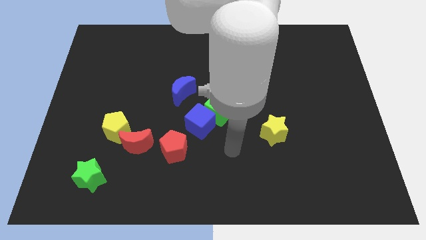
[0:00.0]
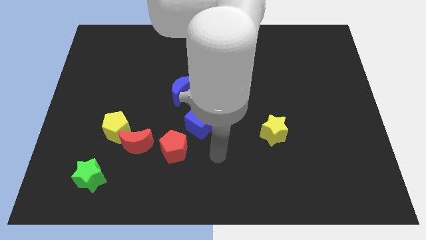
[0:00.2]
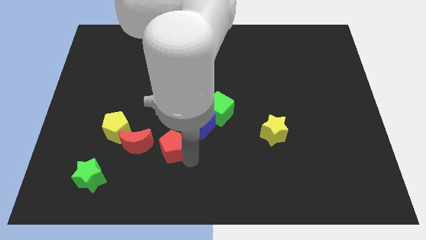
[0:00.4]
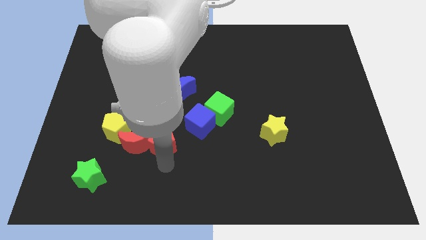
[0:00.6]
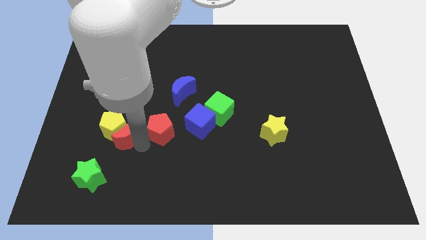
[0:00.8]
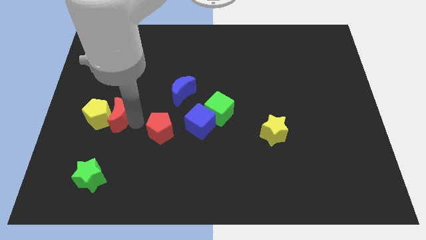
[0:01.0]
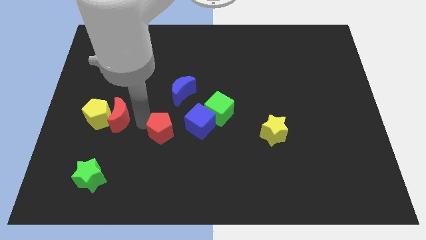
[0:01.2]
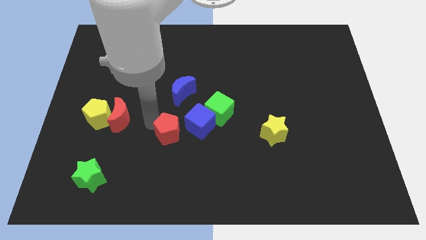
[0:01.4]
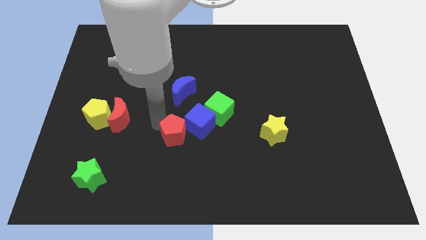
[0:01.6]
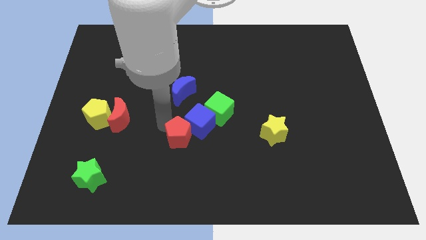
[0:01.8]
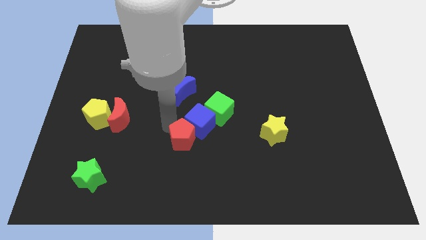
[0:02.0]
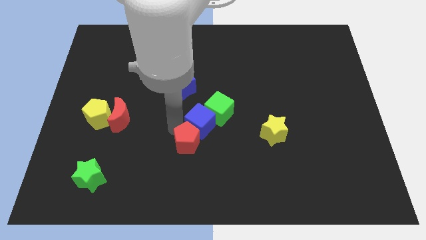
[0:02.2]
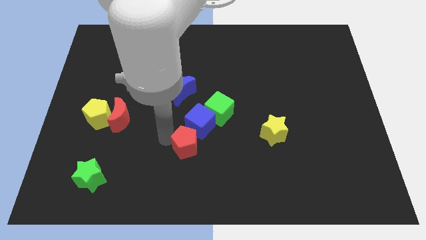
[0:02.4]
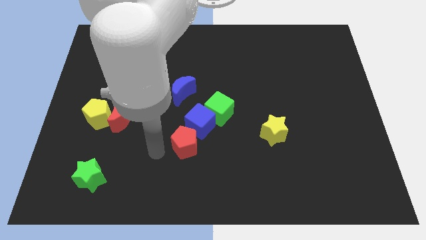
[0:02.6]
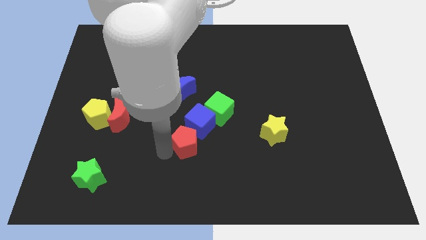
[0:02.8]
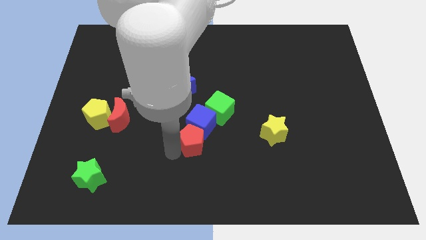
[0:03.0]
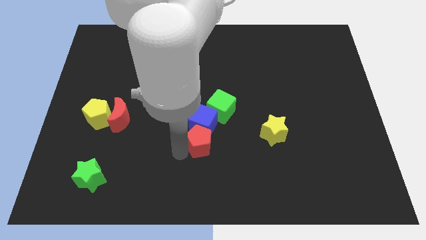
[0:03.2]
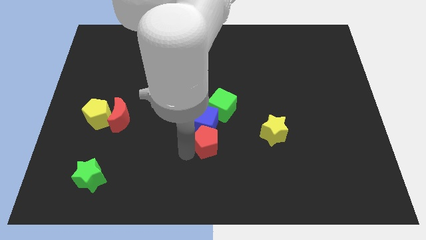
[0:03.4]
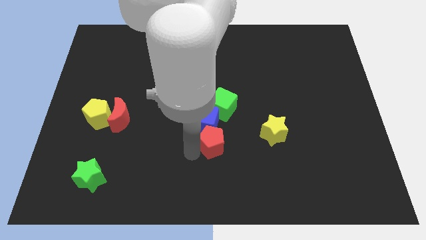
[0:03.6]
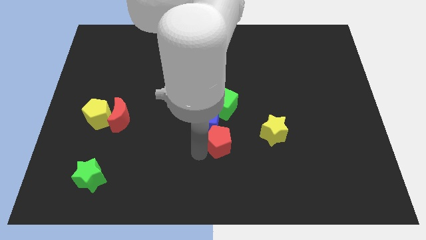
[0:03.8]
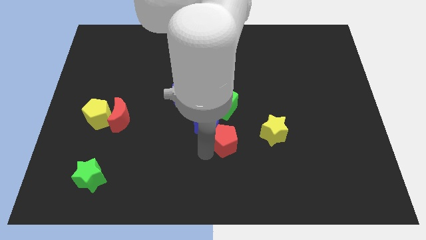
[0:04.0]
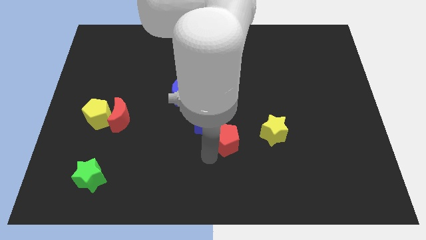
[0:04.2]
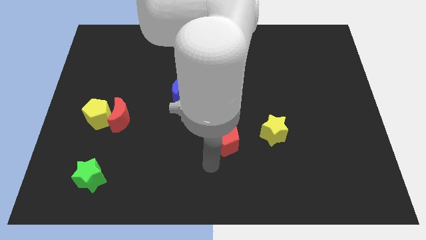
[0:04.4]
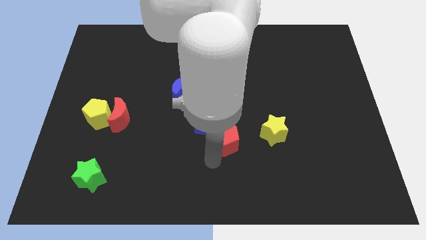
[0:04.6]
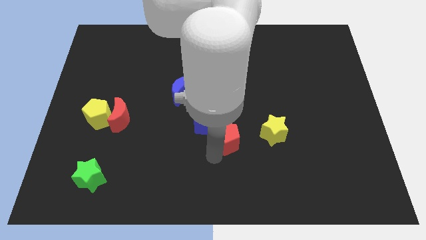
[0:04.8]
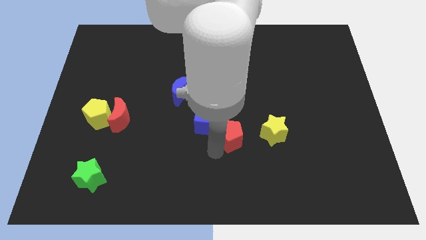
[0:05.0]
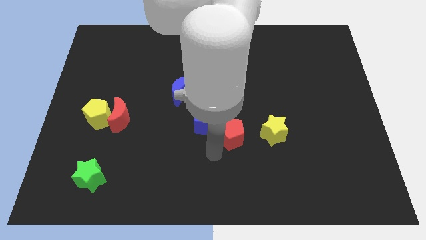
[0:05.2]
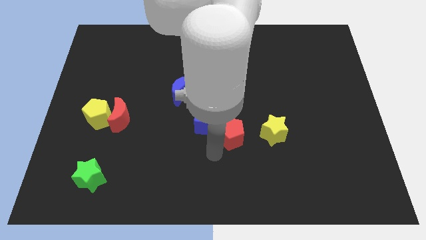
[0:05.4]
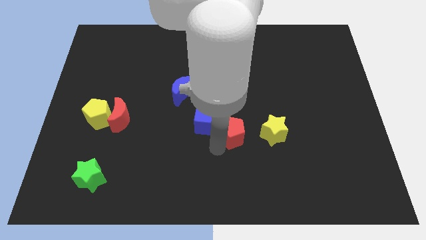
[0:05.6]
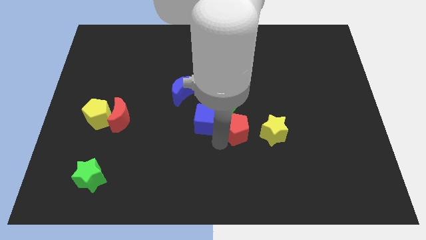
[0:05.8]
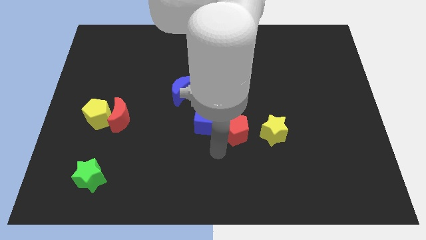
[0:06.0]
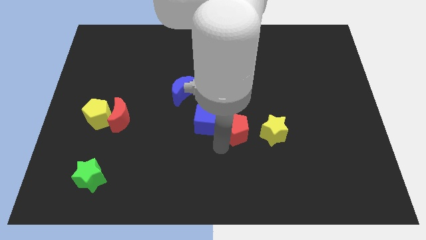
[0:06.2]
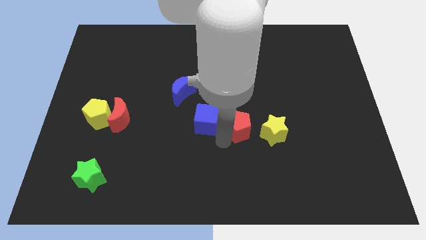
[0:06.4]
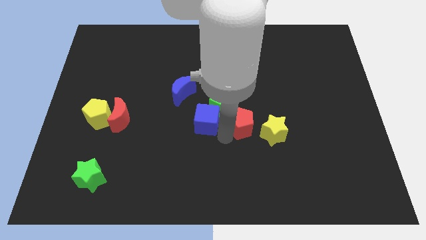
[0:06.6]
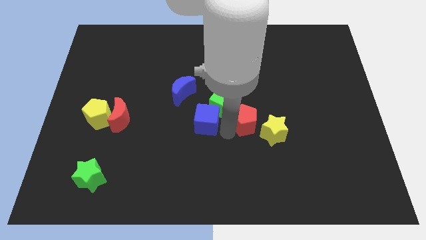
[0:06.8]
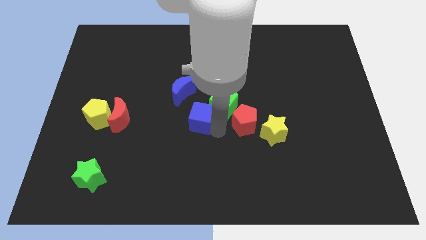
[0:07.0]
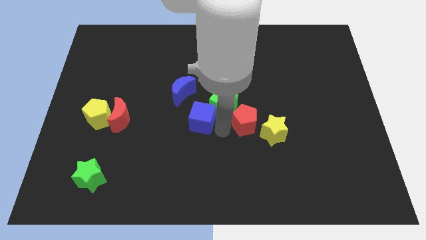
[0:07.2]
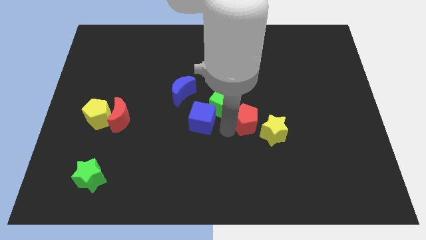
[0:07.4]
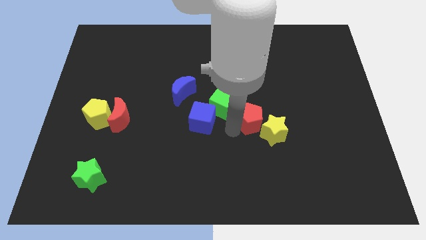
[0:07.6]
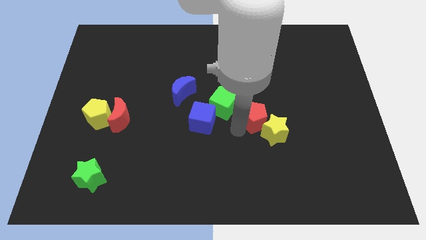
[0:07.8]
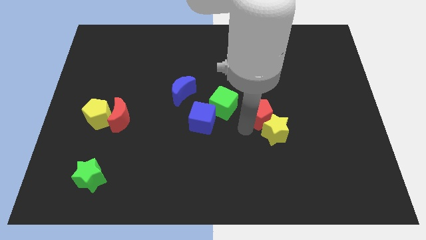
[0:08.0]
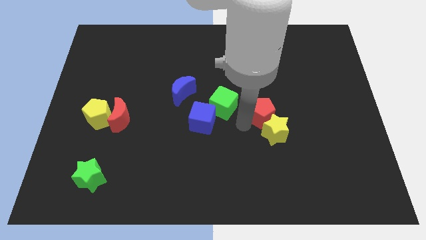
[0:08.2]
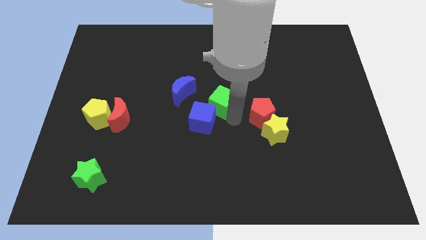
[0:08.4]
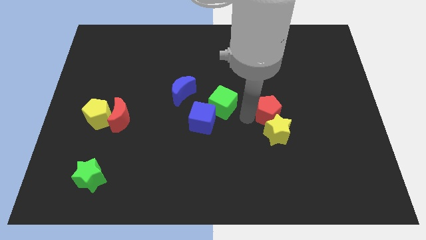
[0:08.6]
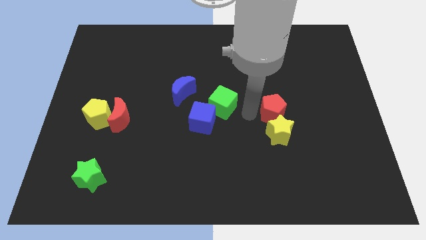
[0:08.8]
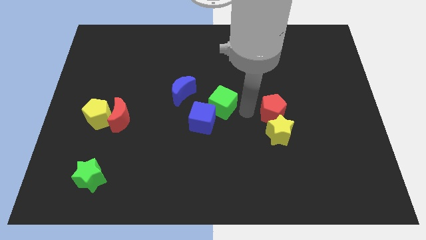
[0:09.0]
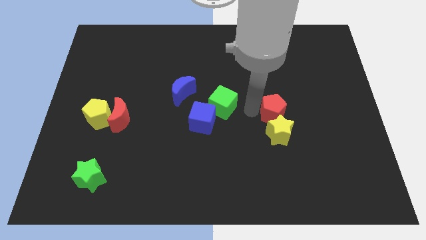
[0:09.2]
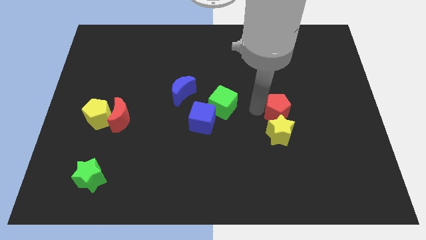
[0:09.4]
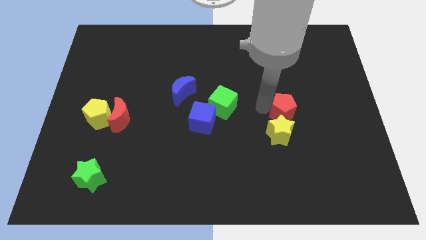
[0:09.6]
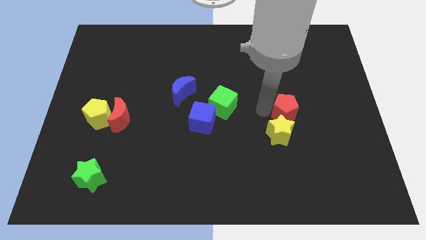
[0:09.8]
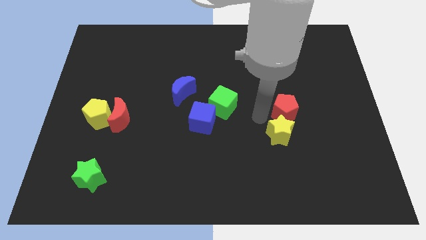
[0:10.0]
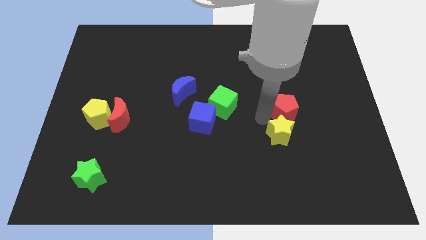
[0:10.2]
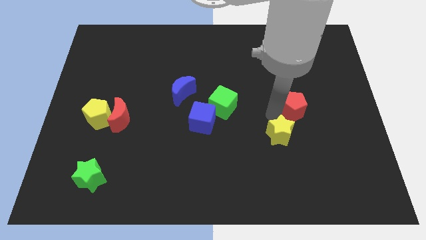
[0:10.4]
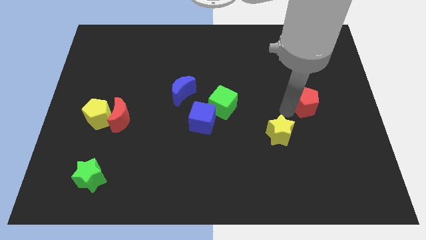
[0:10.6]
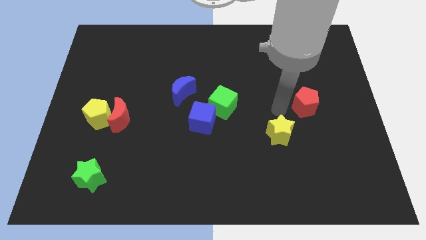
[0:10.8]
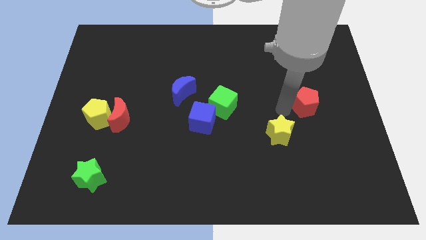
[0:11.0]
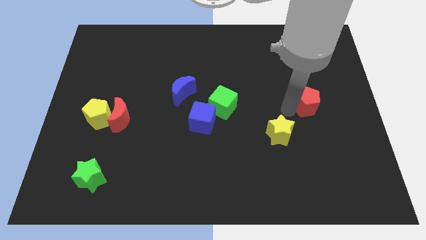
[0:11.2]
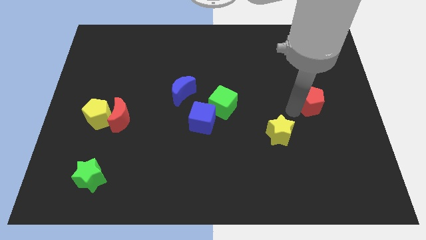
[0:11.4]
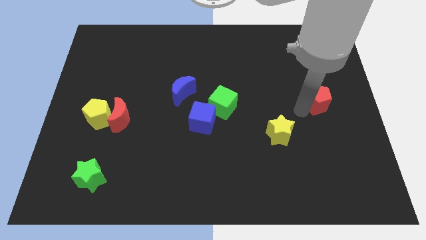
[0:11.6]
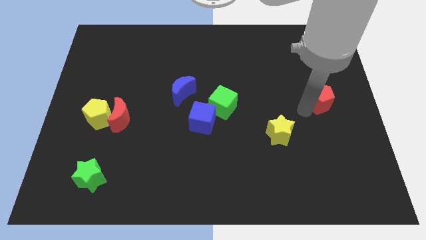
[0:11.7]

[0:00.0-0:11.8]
push the red pentagon to the right side
